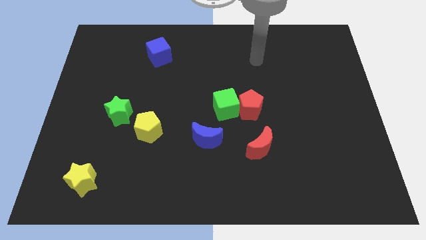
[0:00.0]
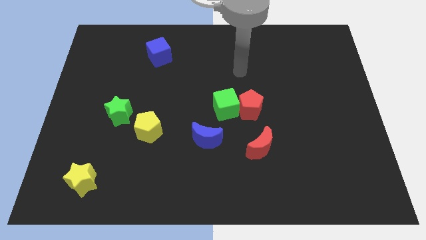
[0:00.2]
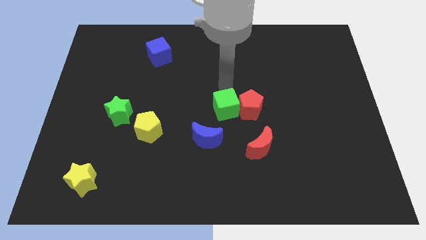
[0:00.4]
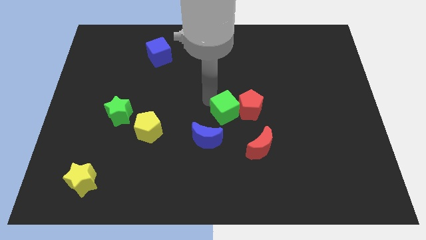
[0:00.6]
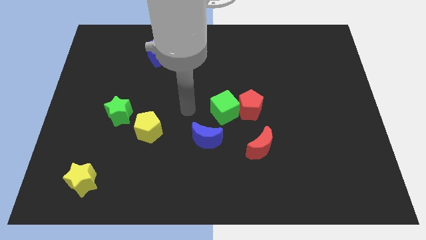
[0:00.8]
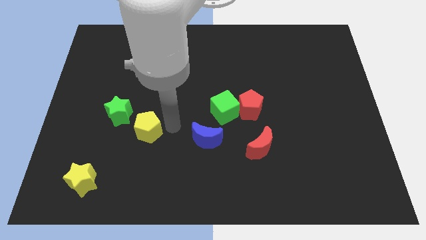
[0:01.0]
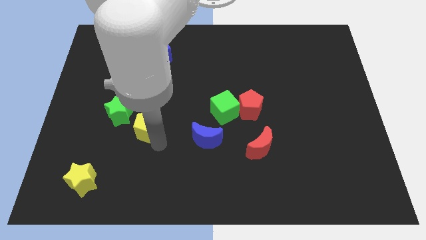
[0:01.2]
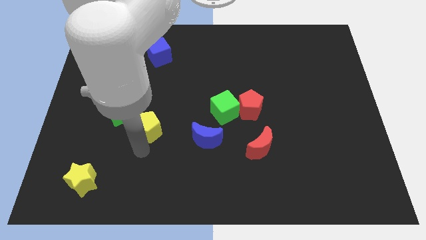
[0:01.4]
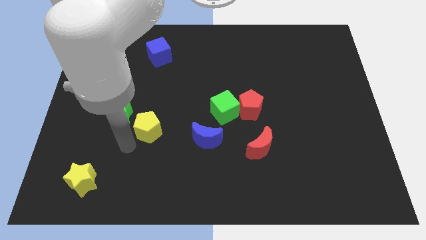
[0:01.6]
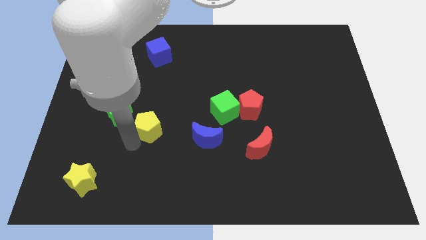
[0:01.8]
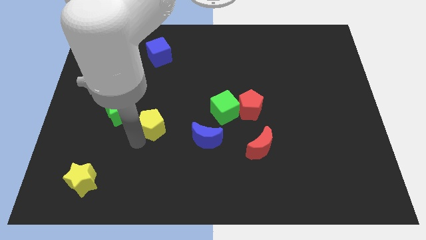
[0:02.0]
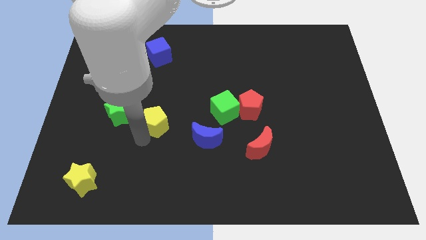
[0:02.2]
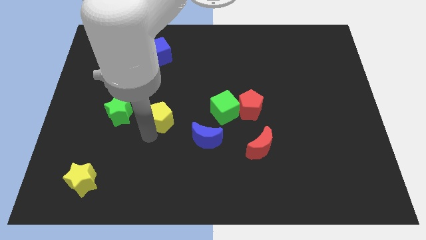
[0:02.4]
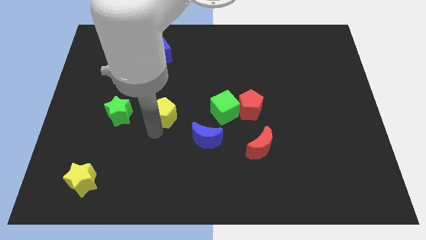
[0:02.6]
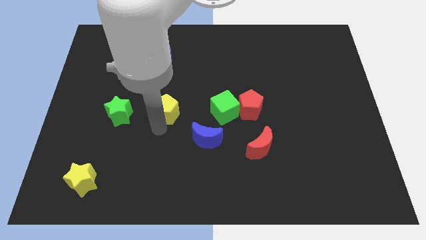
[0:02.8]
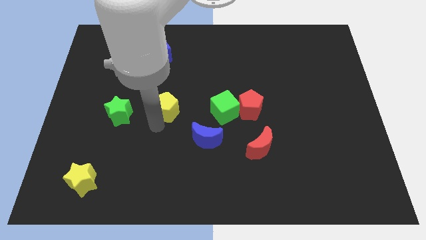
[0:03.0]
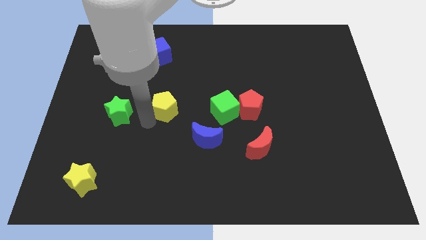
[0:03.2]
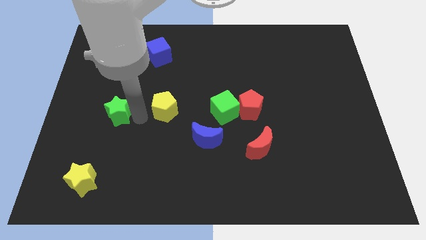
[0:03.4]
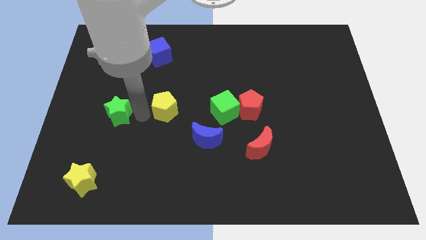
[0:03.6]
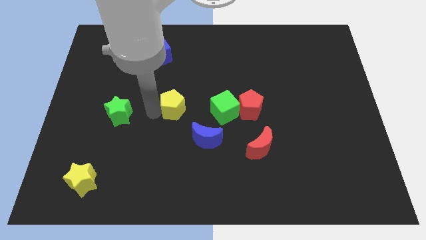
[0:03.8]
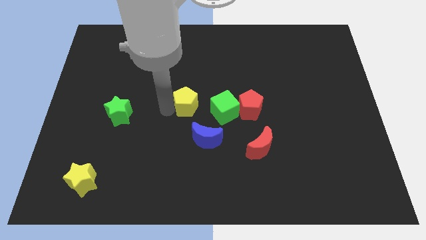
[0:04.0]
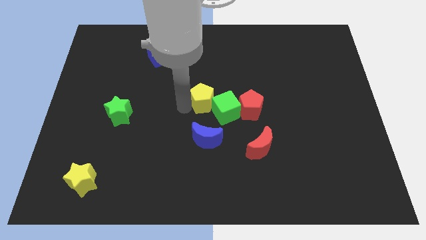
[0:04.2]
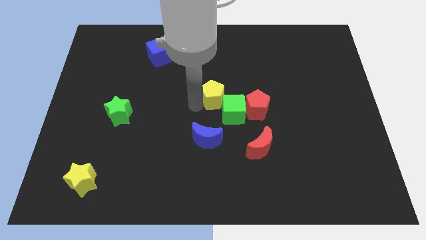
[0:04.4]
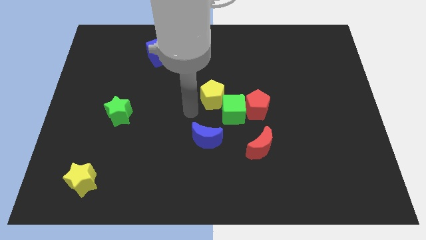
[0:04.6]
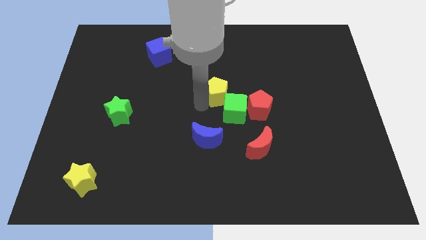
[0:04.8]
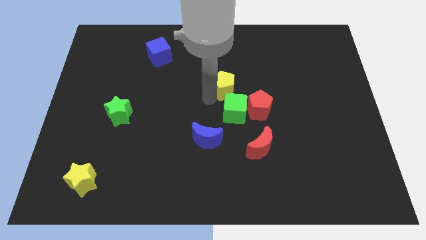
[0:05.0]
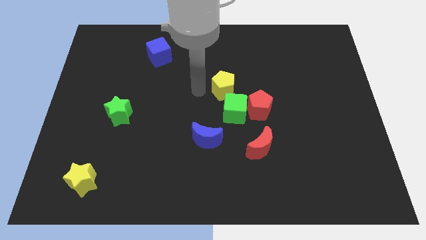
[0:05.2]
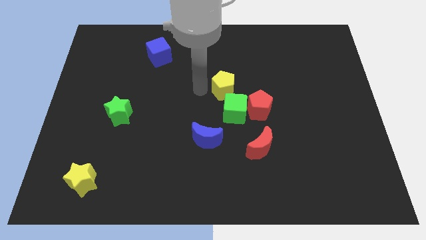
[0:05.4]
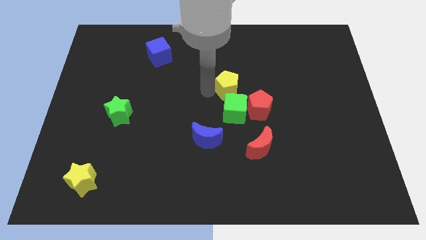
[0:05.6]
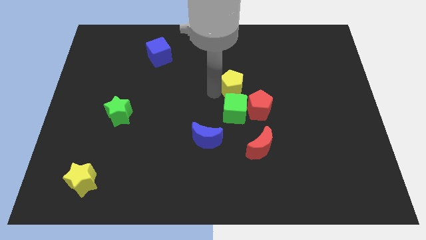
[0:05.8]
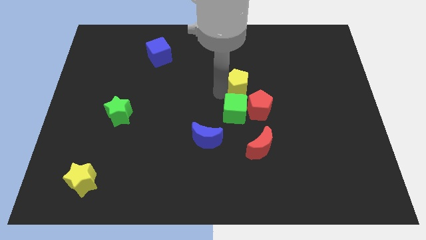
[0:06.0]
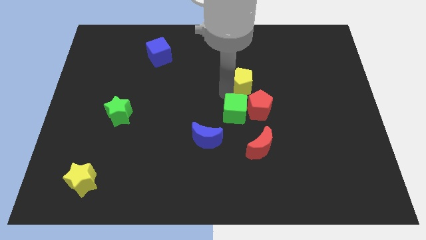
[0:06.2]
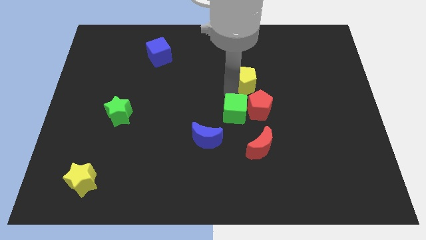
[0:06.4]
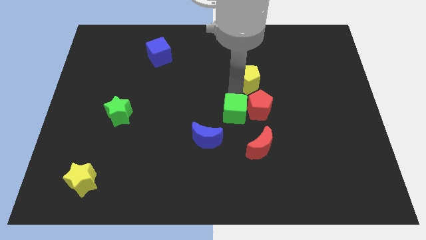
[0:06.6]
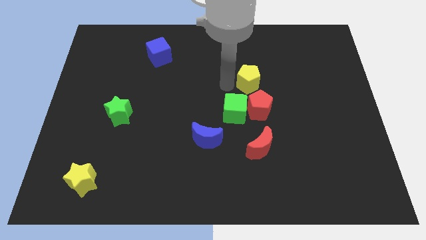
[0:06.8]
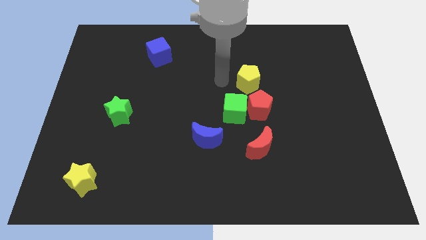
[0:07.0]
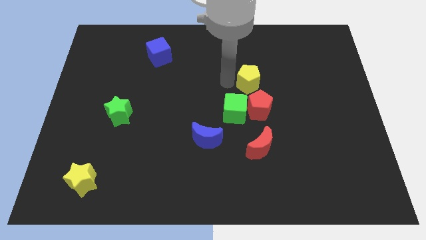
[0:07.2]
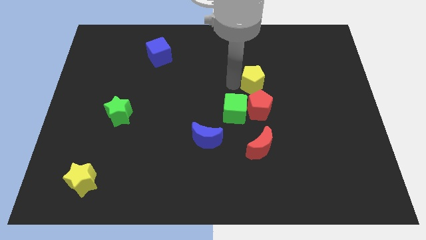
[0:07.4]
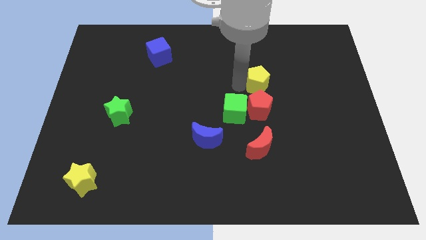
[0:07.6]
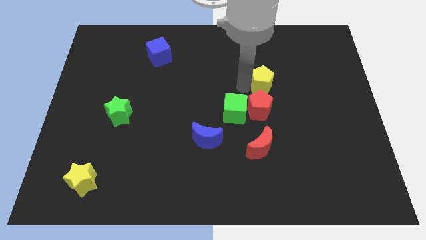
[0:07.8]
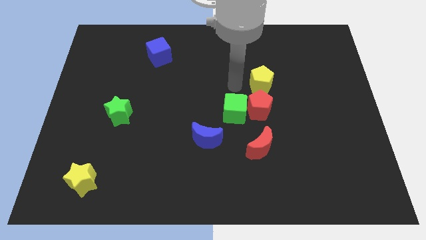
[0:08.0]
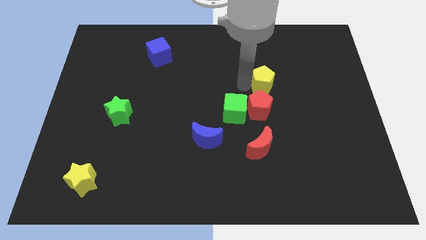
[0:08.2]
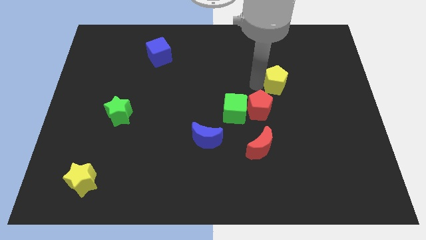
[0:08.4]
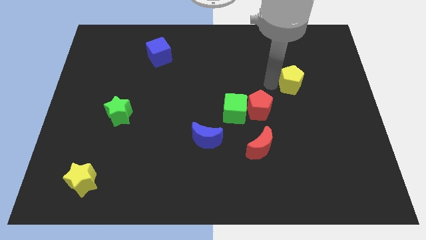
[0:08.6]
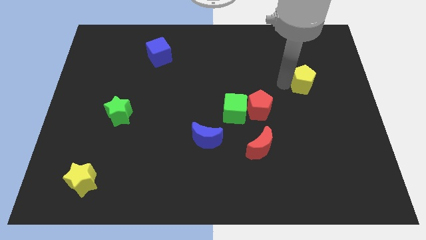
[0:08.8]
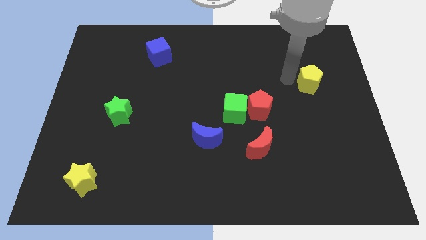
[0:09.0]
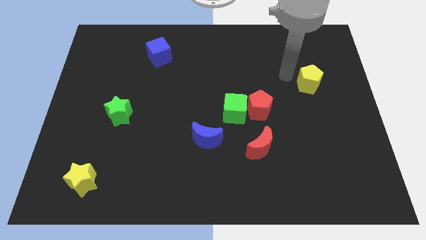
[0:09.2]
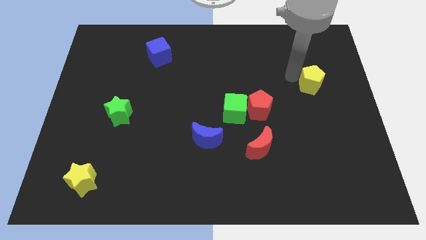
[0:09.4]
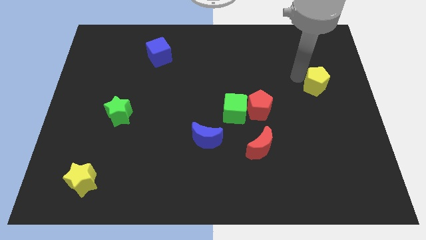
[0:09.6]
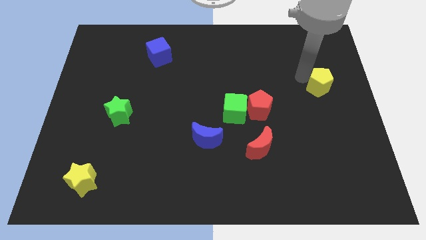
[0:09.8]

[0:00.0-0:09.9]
push the yellow pentagon to the right side

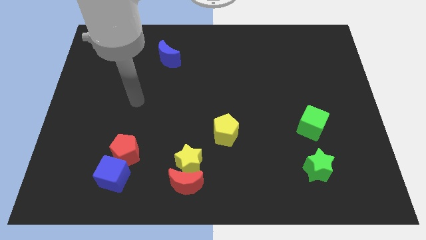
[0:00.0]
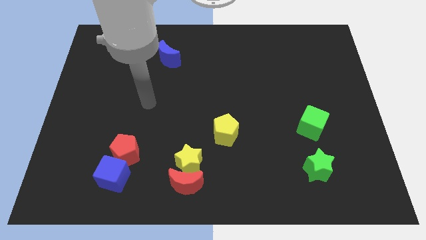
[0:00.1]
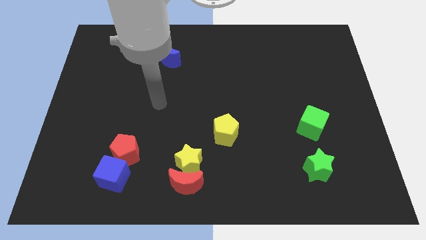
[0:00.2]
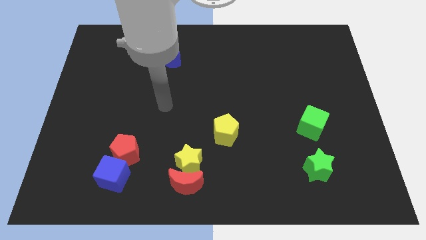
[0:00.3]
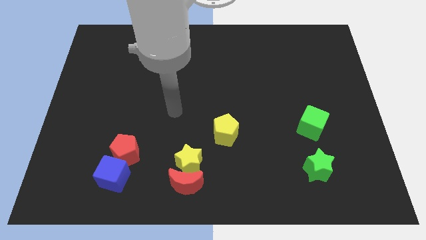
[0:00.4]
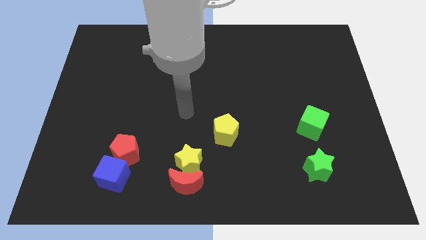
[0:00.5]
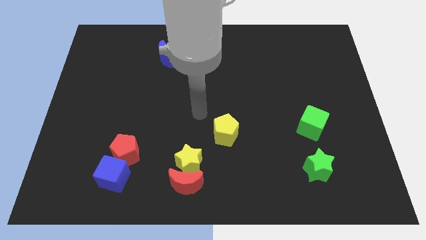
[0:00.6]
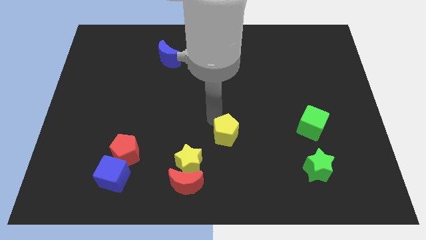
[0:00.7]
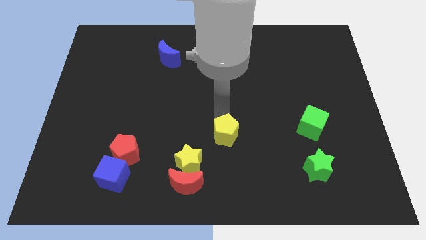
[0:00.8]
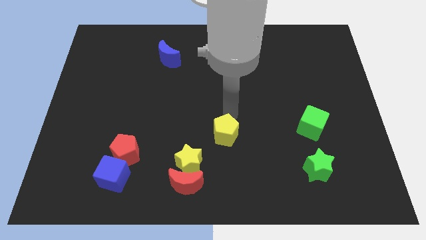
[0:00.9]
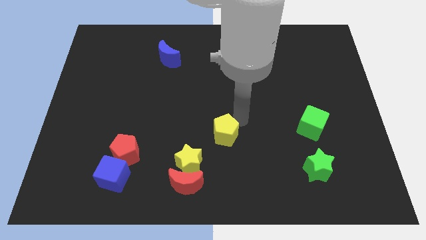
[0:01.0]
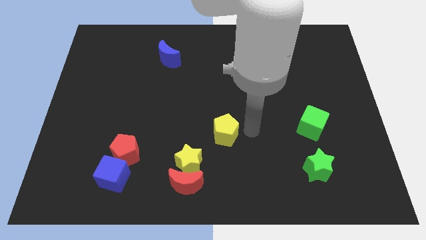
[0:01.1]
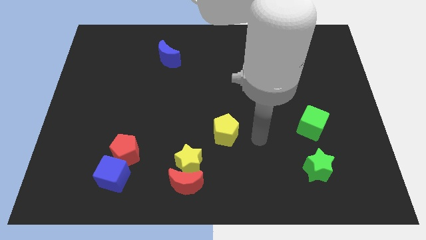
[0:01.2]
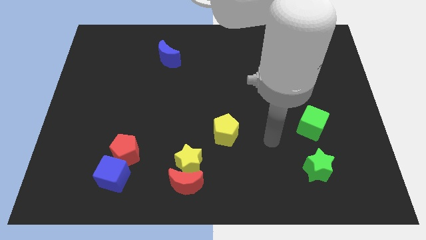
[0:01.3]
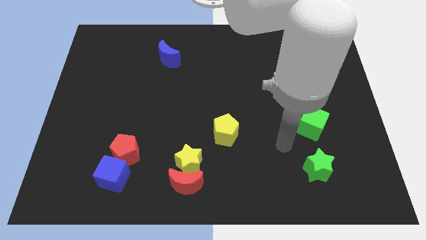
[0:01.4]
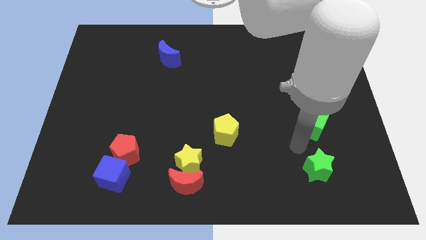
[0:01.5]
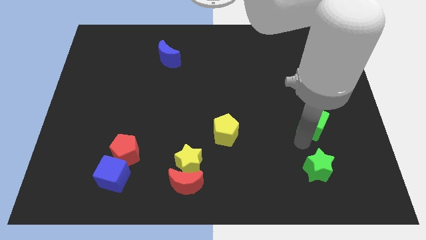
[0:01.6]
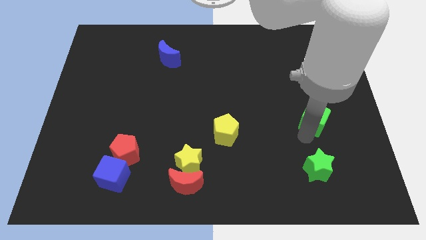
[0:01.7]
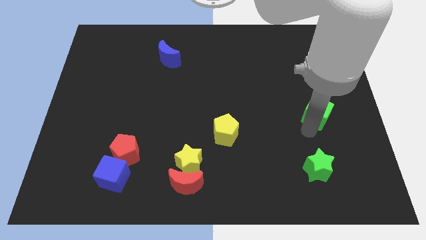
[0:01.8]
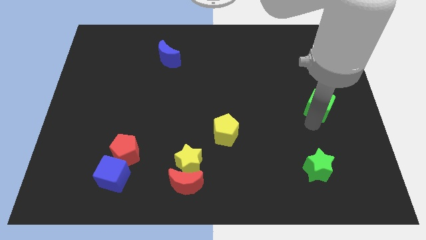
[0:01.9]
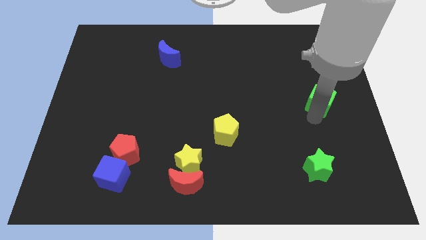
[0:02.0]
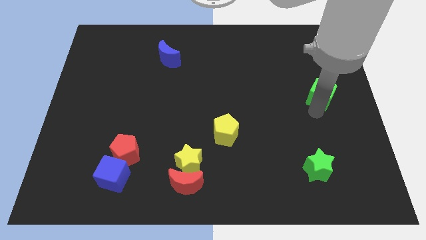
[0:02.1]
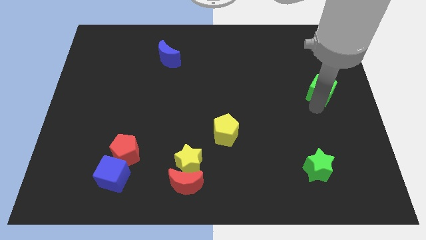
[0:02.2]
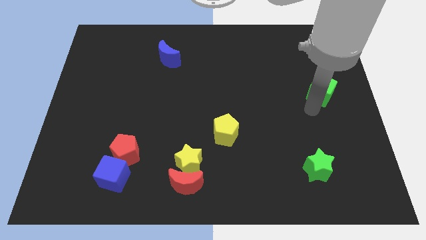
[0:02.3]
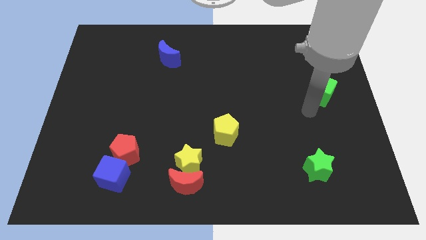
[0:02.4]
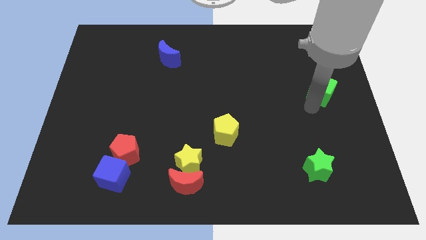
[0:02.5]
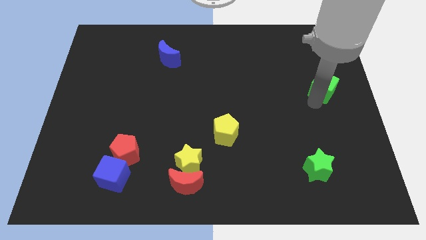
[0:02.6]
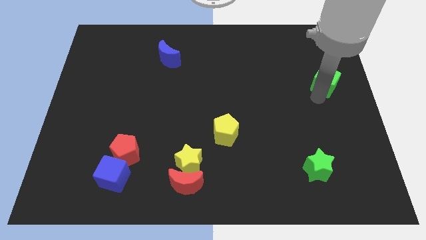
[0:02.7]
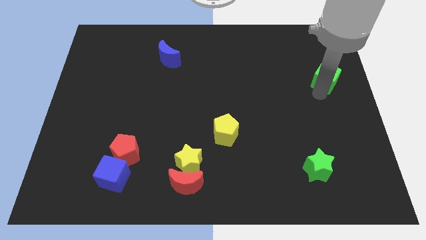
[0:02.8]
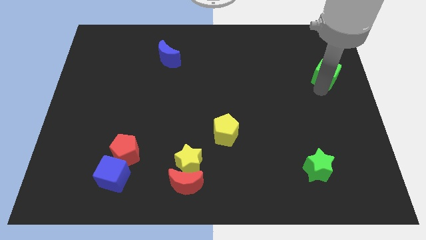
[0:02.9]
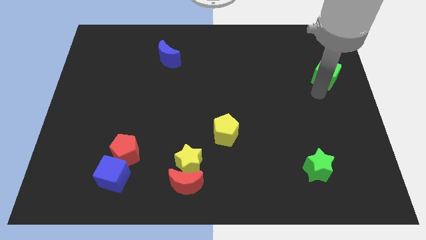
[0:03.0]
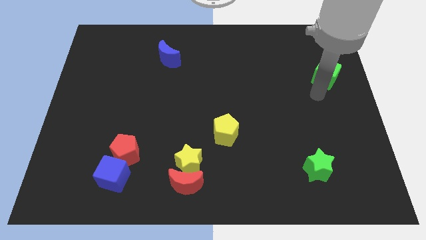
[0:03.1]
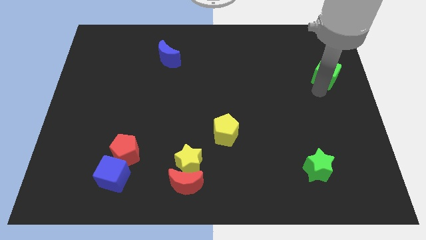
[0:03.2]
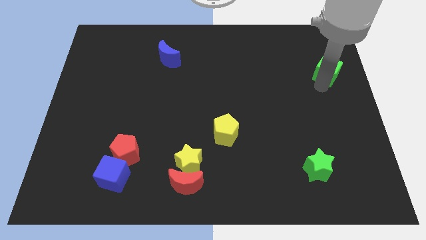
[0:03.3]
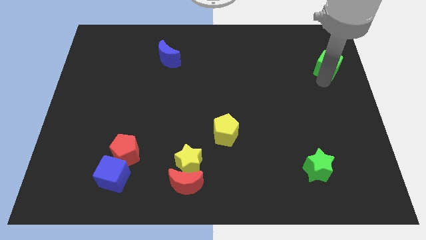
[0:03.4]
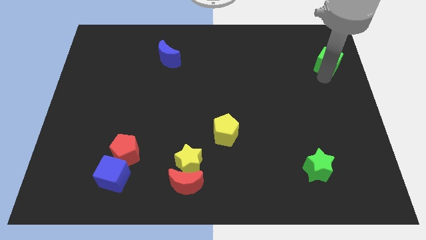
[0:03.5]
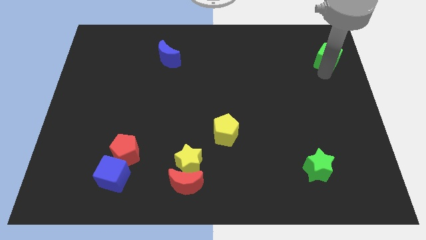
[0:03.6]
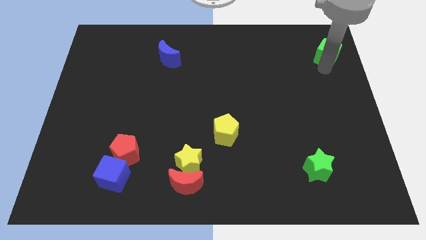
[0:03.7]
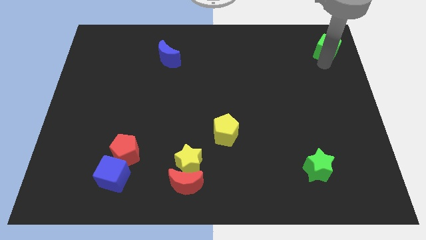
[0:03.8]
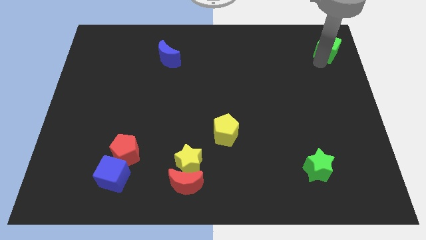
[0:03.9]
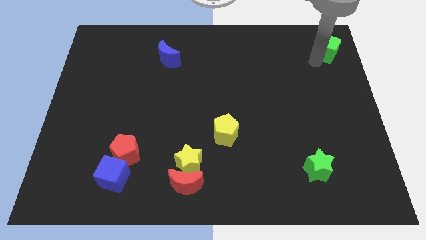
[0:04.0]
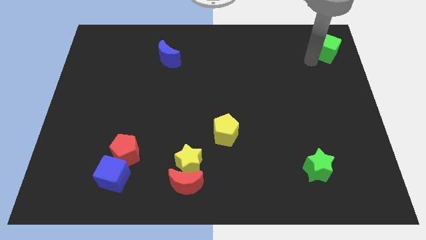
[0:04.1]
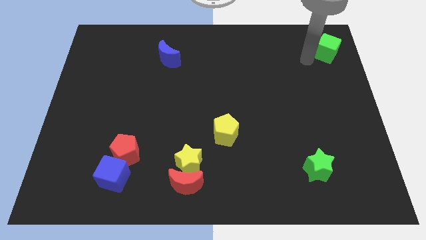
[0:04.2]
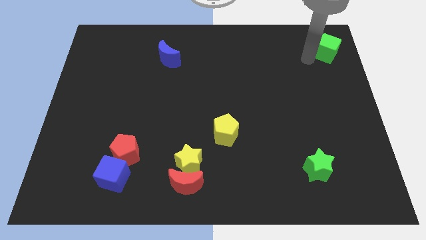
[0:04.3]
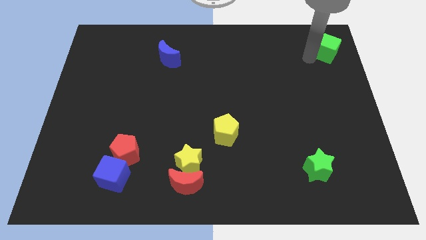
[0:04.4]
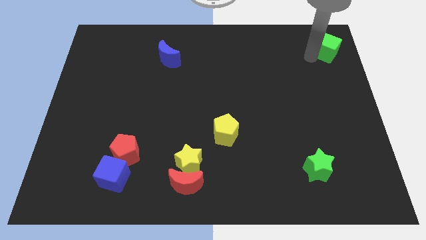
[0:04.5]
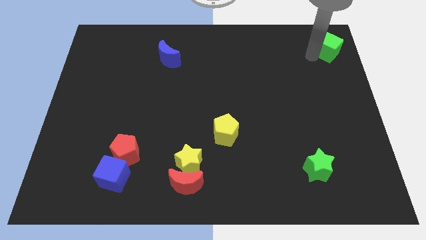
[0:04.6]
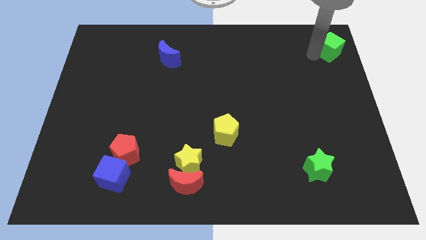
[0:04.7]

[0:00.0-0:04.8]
slide the green cube to the top right corner
